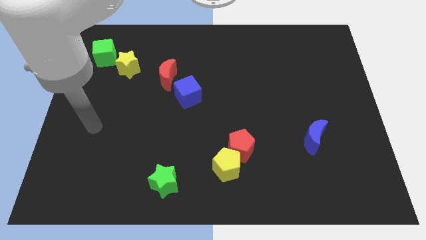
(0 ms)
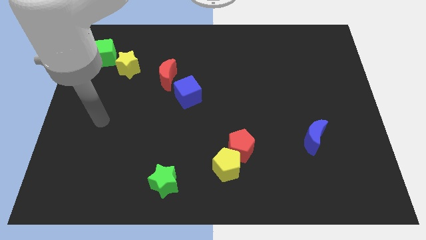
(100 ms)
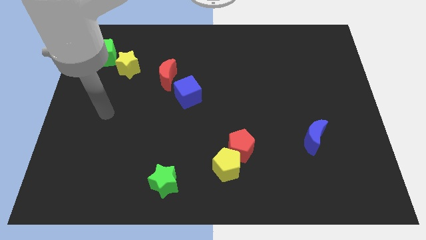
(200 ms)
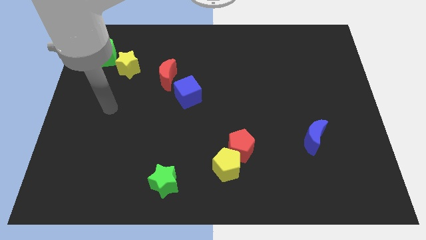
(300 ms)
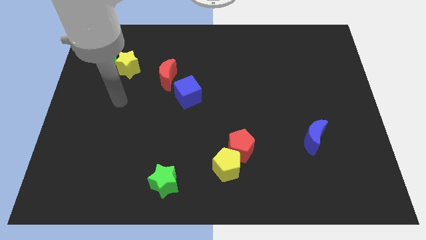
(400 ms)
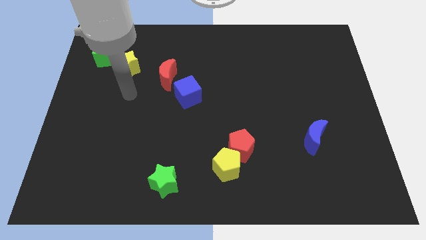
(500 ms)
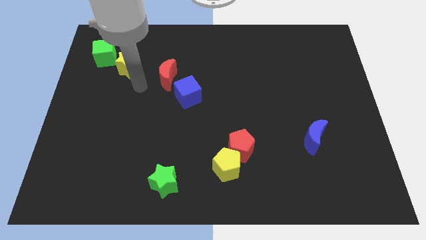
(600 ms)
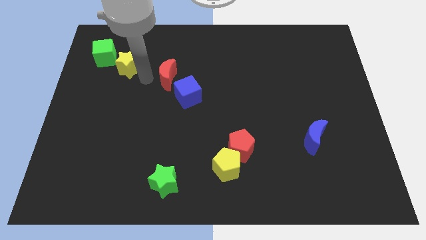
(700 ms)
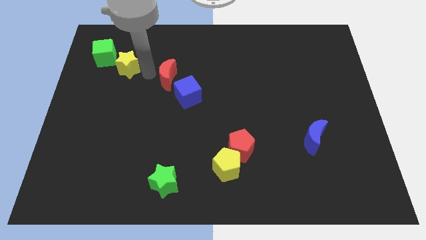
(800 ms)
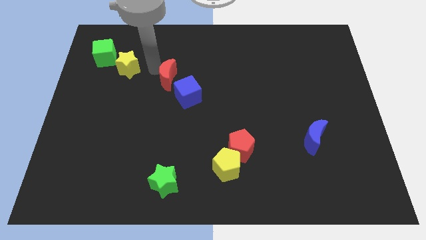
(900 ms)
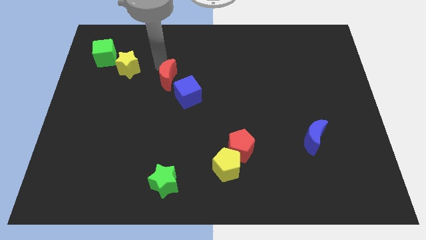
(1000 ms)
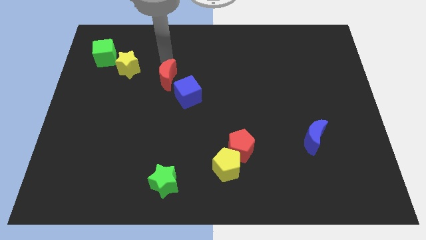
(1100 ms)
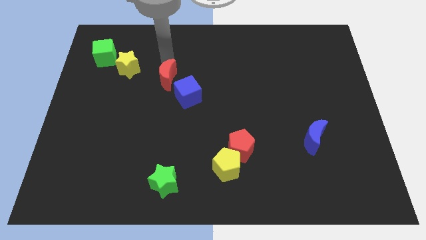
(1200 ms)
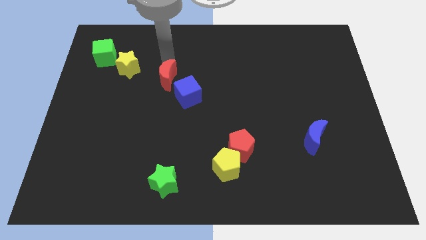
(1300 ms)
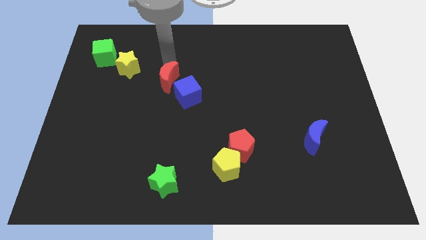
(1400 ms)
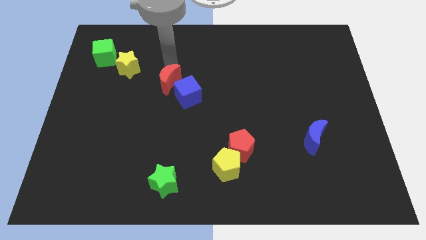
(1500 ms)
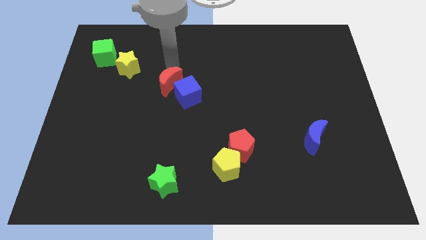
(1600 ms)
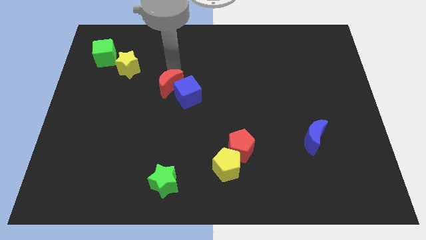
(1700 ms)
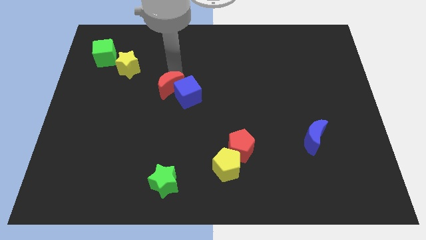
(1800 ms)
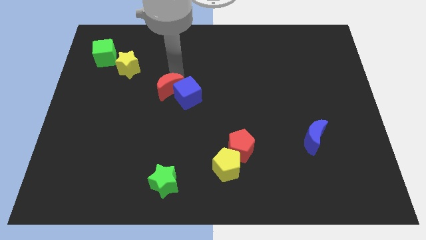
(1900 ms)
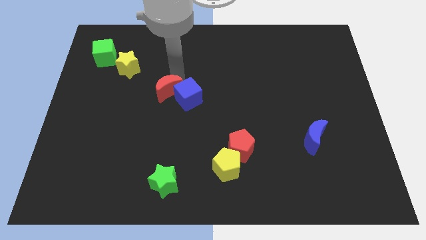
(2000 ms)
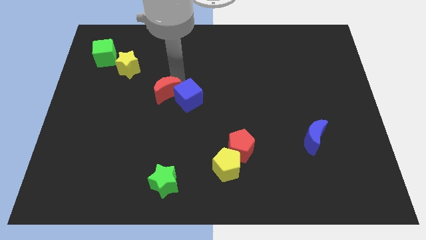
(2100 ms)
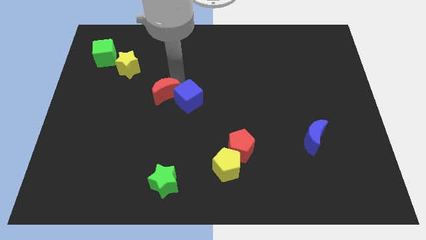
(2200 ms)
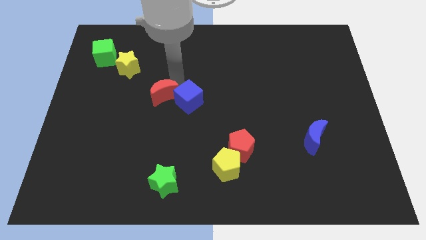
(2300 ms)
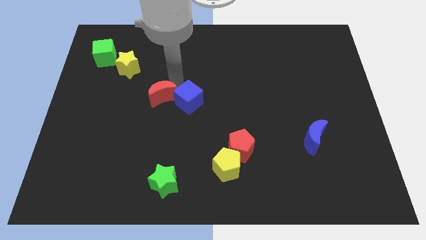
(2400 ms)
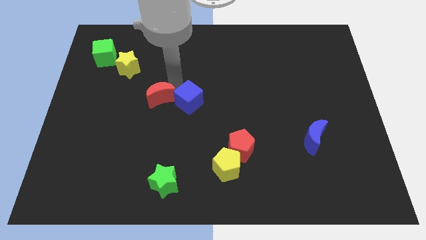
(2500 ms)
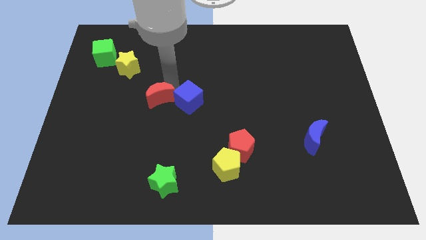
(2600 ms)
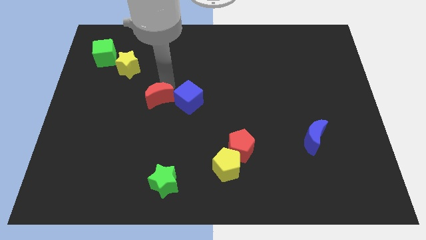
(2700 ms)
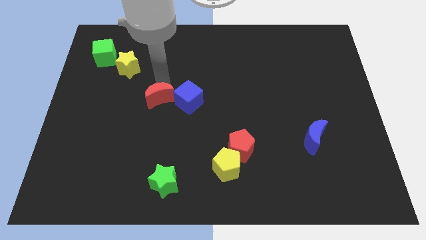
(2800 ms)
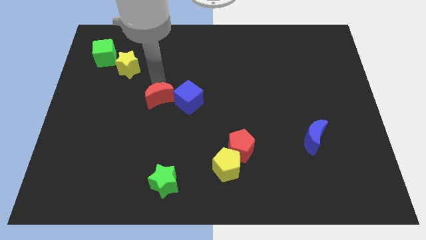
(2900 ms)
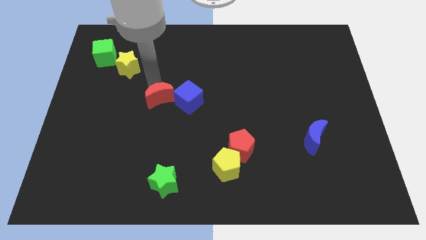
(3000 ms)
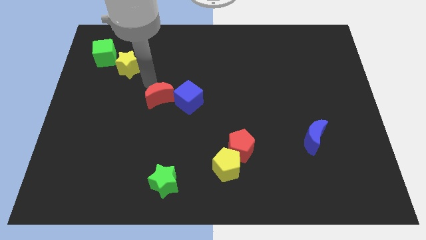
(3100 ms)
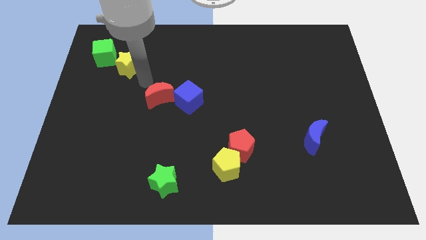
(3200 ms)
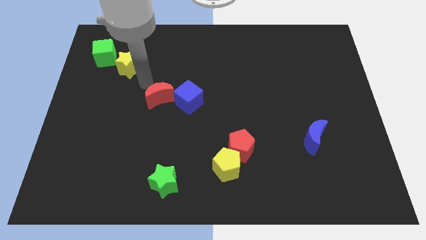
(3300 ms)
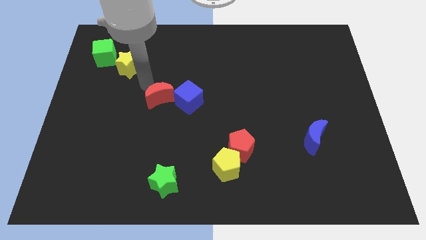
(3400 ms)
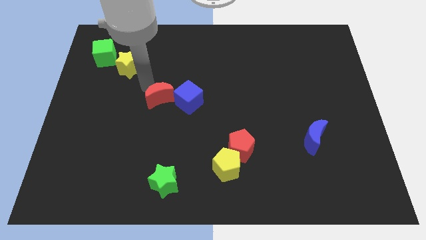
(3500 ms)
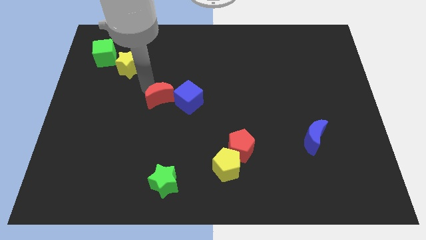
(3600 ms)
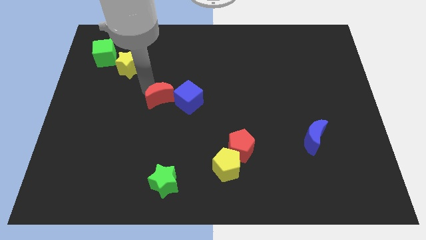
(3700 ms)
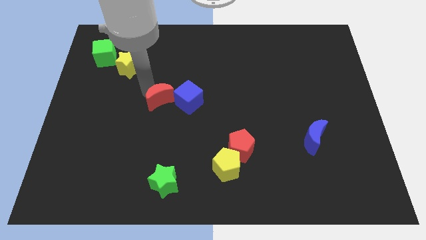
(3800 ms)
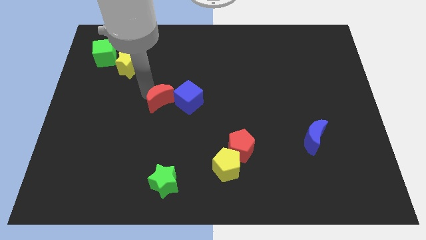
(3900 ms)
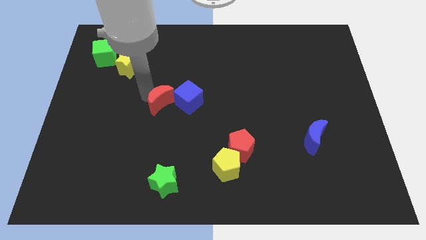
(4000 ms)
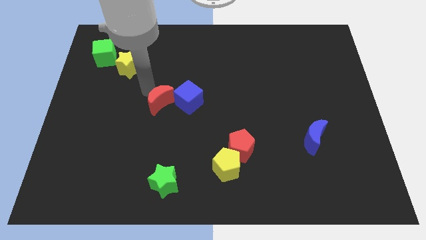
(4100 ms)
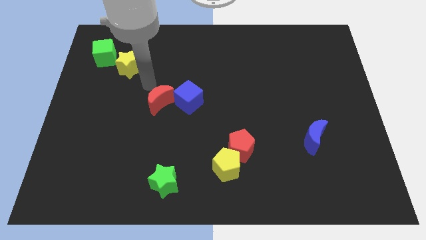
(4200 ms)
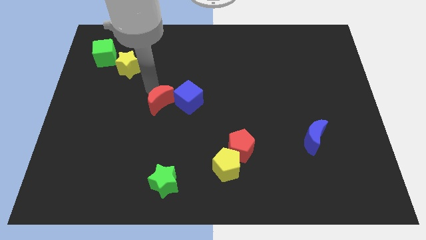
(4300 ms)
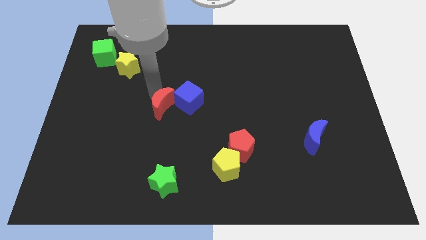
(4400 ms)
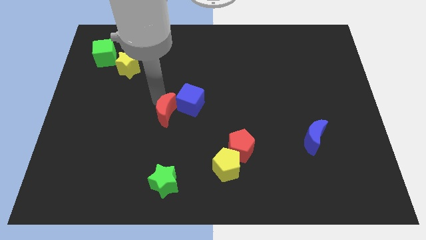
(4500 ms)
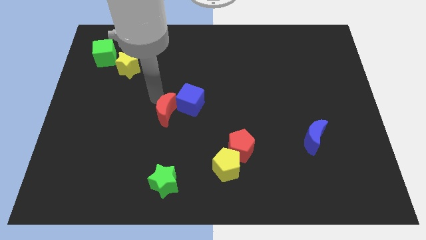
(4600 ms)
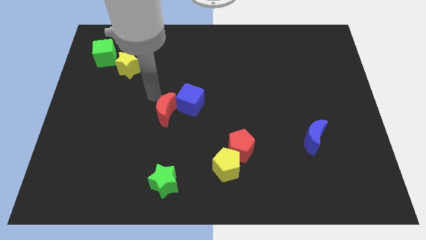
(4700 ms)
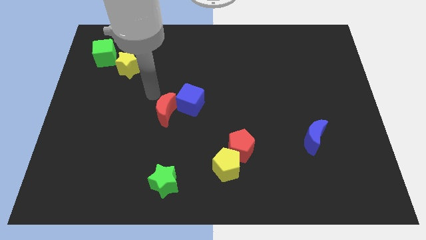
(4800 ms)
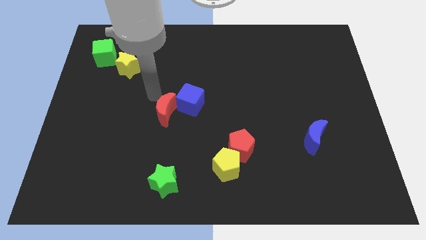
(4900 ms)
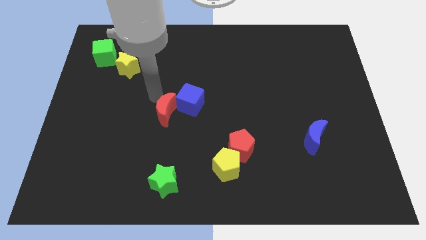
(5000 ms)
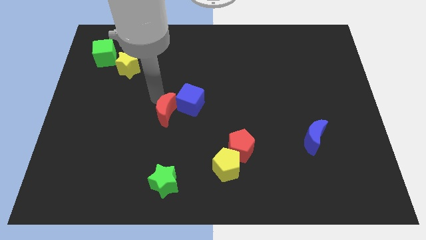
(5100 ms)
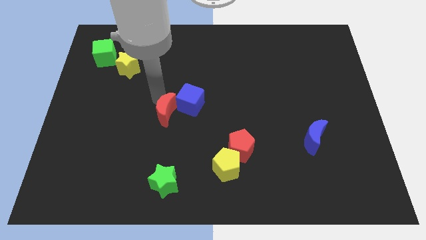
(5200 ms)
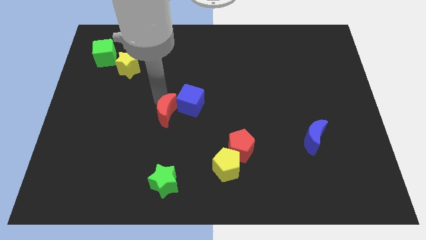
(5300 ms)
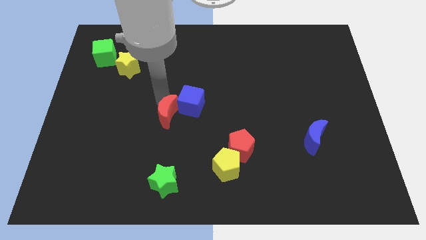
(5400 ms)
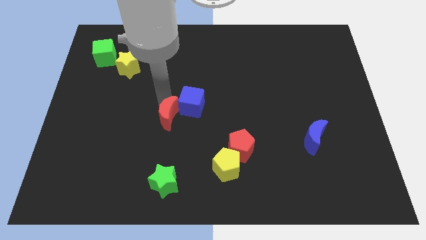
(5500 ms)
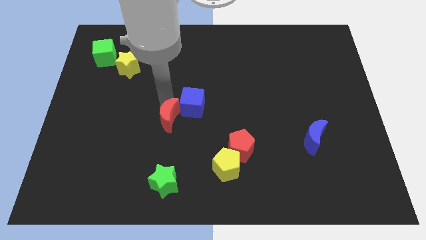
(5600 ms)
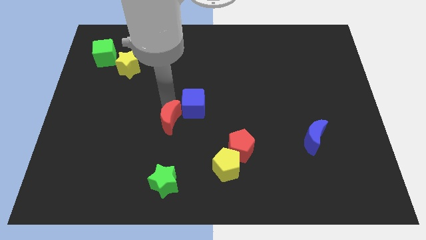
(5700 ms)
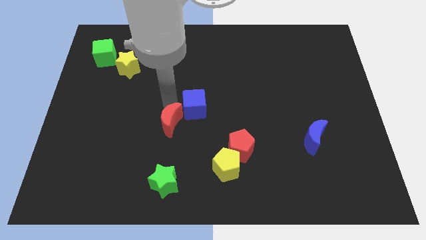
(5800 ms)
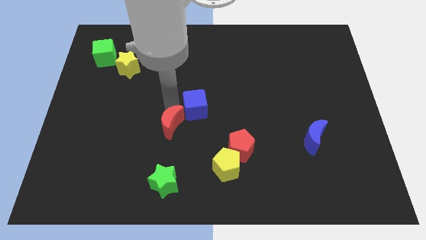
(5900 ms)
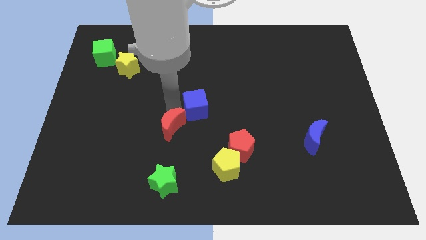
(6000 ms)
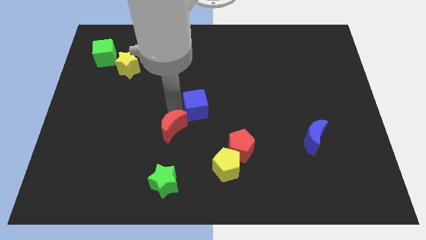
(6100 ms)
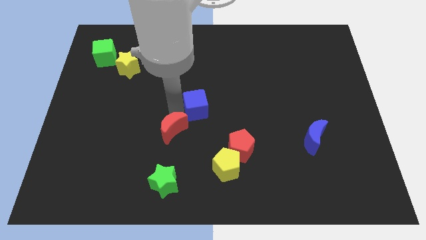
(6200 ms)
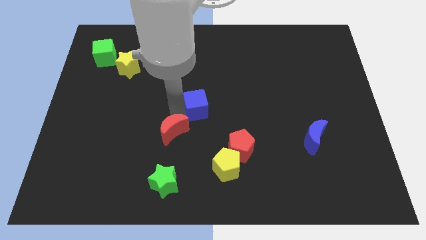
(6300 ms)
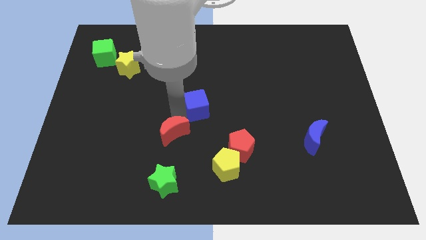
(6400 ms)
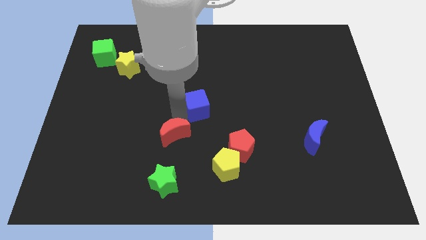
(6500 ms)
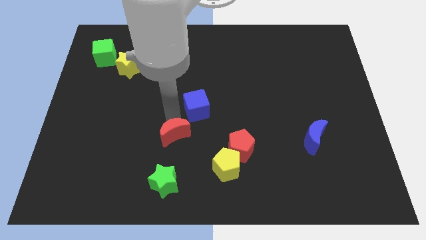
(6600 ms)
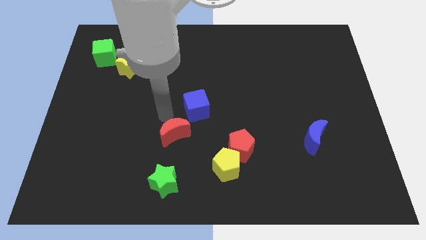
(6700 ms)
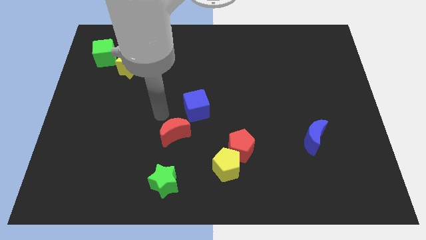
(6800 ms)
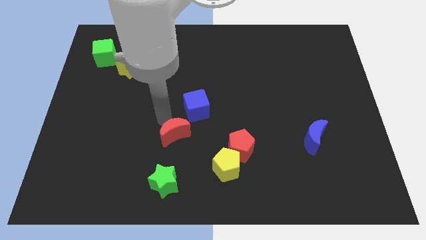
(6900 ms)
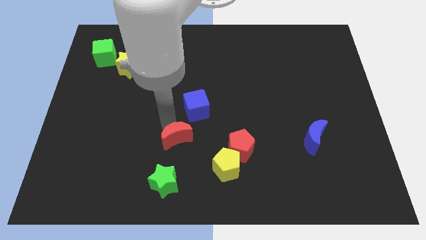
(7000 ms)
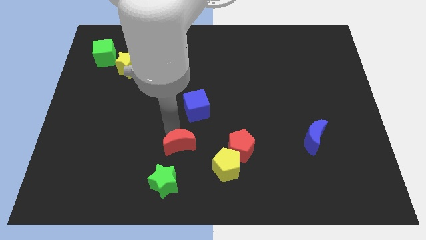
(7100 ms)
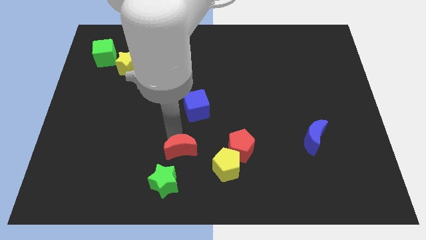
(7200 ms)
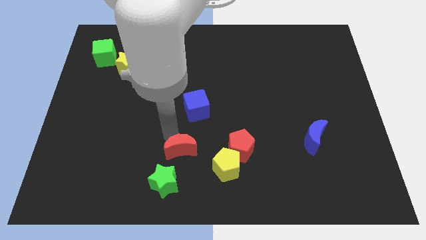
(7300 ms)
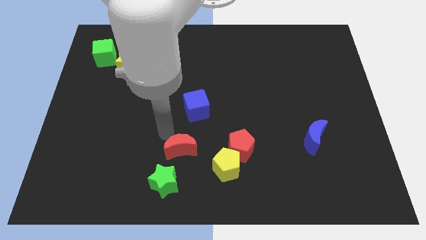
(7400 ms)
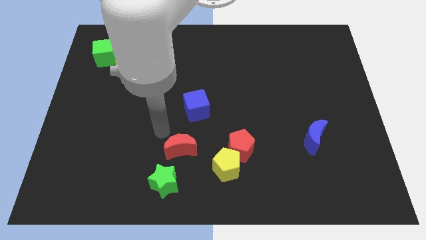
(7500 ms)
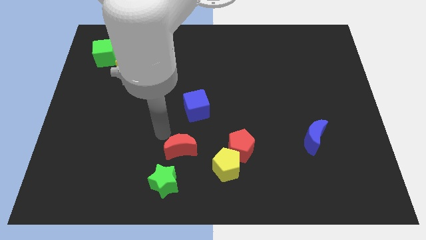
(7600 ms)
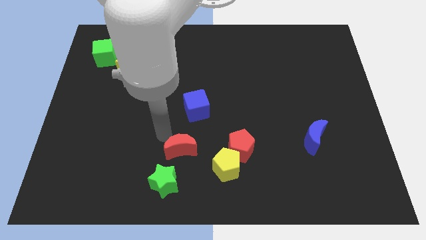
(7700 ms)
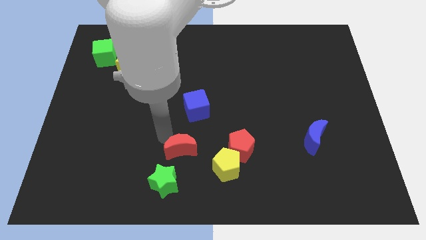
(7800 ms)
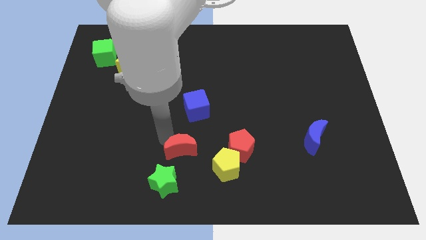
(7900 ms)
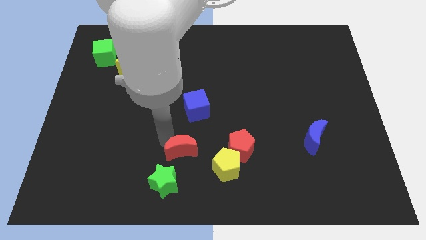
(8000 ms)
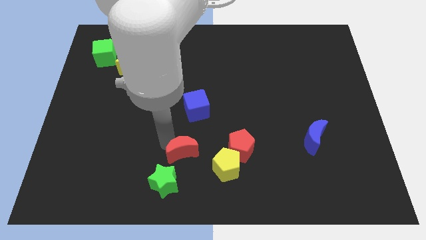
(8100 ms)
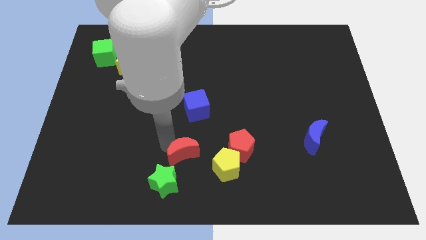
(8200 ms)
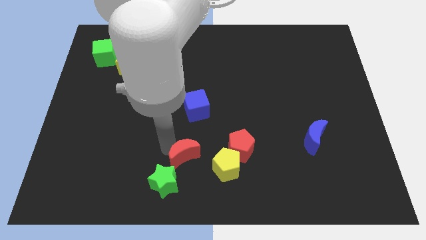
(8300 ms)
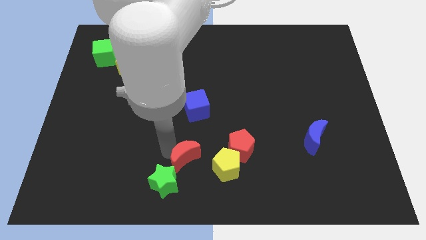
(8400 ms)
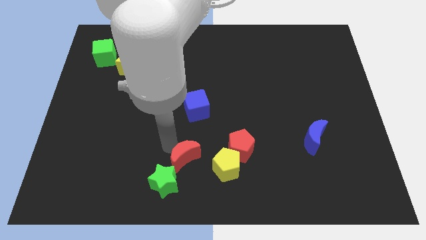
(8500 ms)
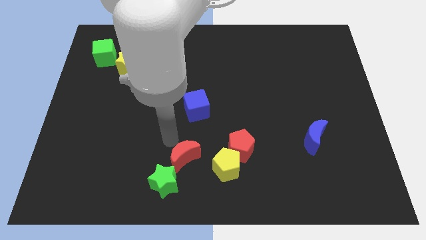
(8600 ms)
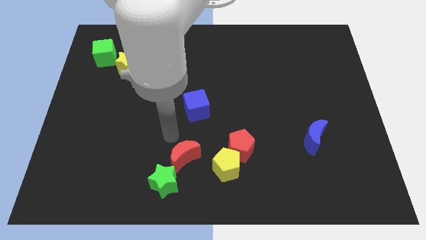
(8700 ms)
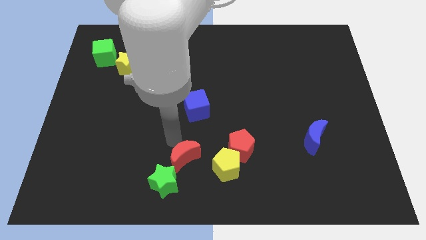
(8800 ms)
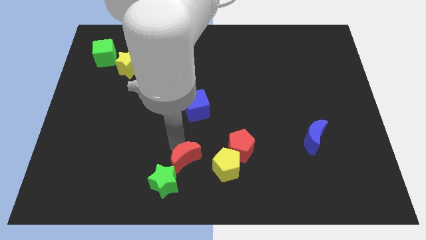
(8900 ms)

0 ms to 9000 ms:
push the red moon to the bottom
